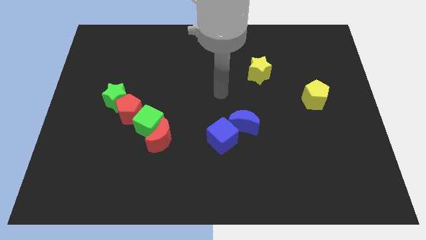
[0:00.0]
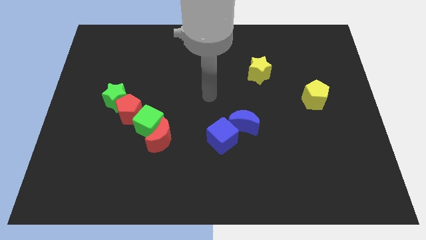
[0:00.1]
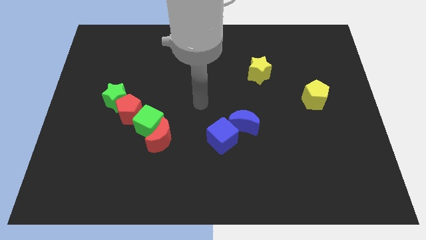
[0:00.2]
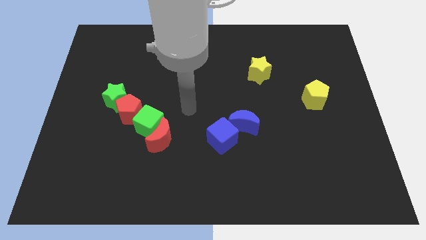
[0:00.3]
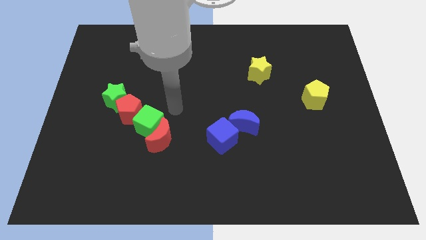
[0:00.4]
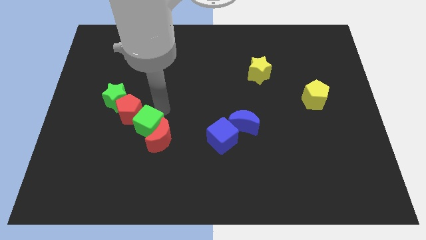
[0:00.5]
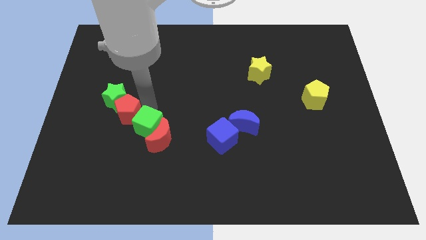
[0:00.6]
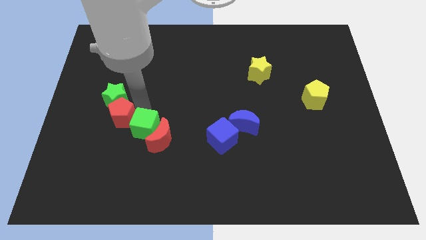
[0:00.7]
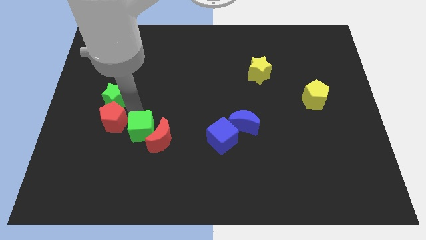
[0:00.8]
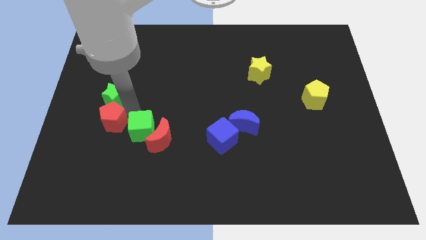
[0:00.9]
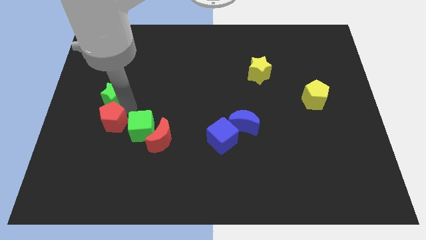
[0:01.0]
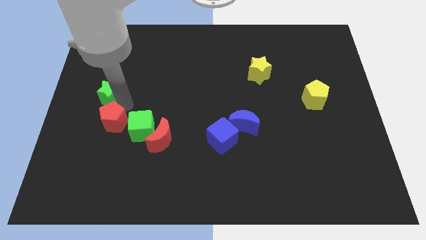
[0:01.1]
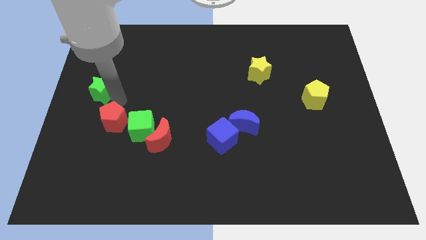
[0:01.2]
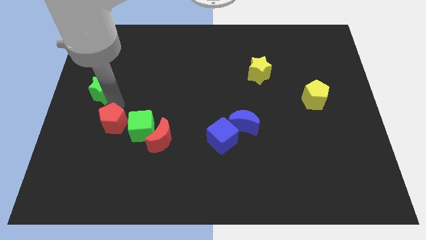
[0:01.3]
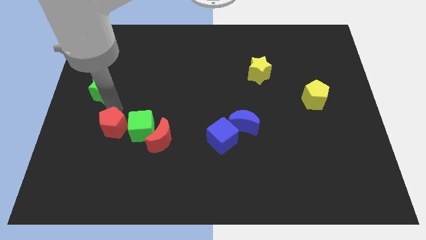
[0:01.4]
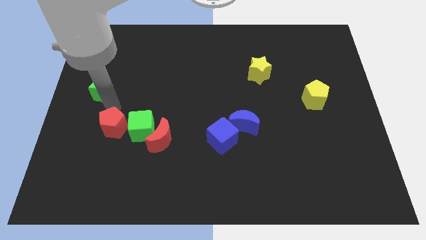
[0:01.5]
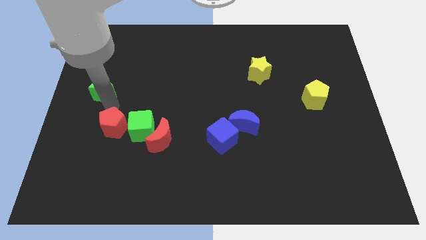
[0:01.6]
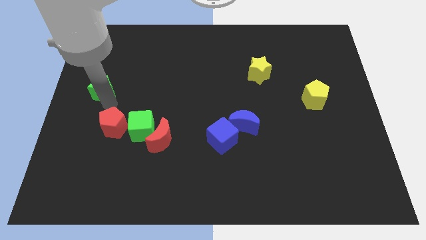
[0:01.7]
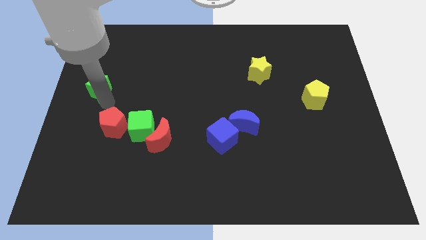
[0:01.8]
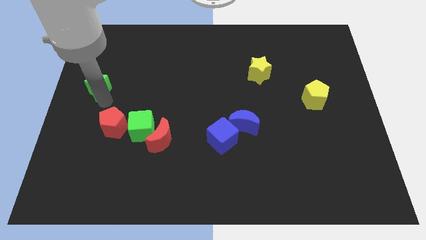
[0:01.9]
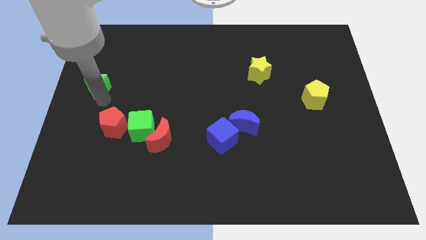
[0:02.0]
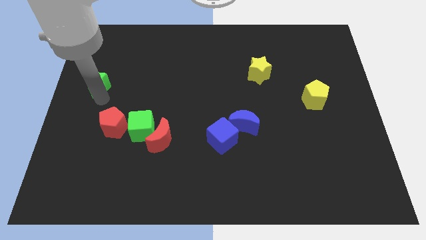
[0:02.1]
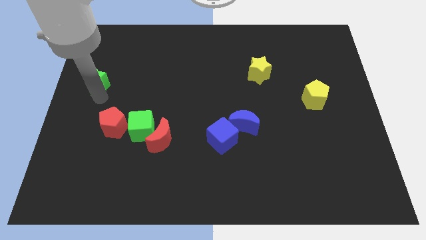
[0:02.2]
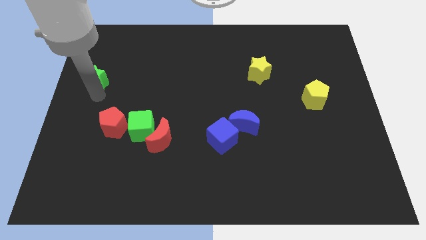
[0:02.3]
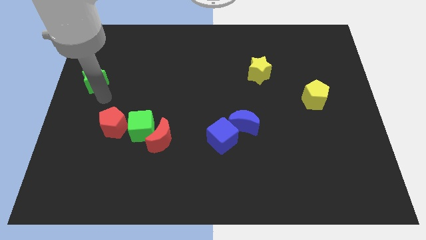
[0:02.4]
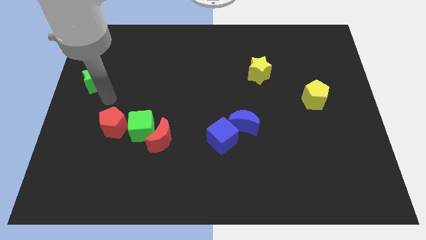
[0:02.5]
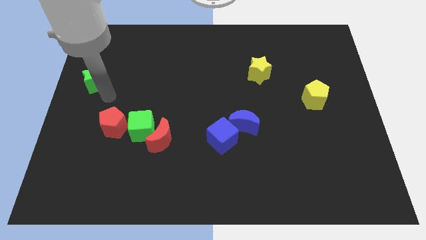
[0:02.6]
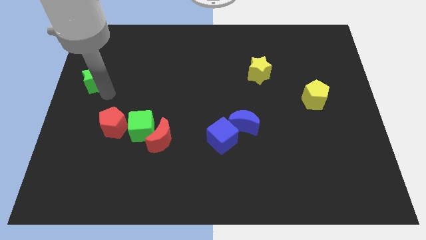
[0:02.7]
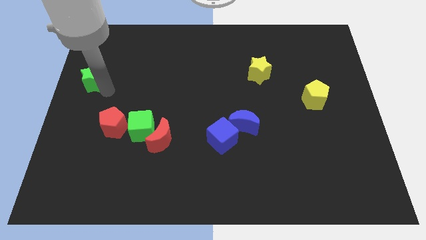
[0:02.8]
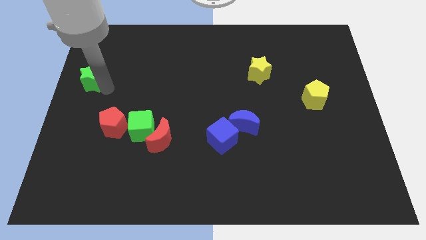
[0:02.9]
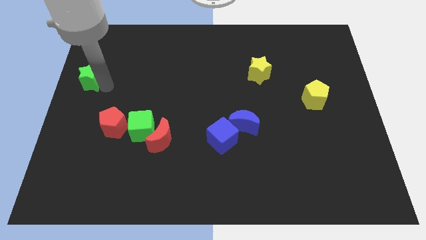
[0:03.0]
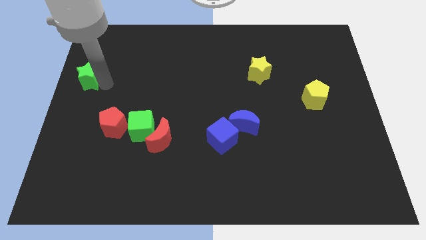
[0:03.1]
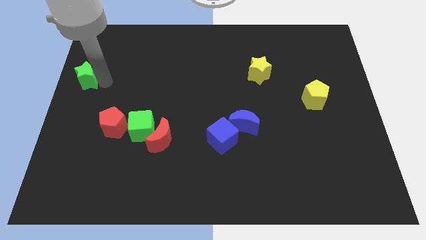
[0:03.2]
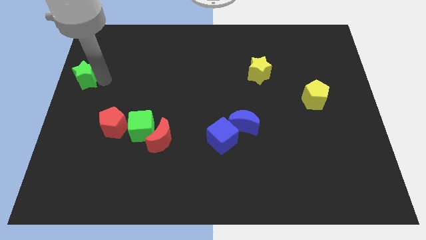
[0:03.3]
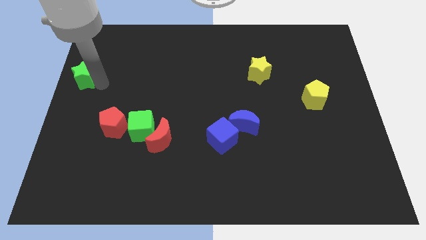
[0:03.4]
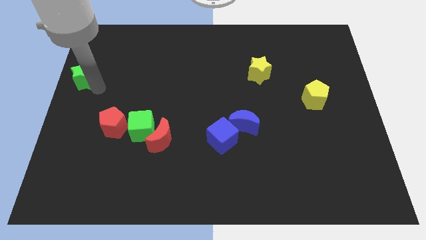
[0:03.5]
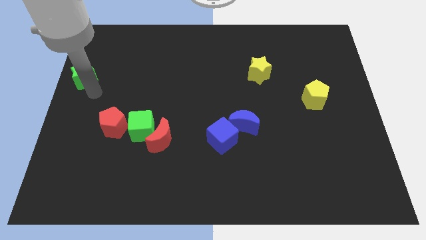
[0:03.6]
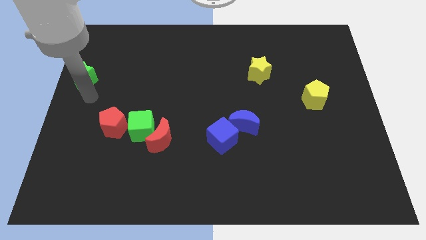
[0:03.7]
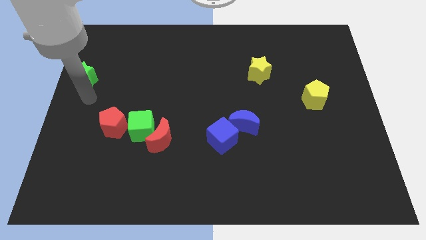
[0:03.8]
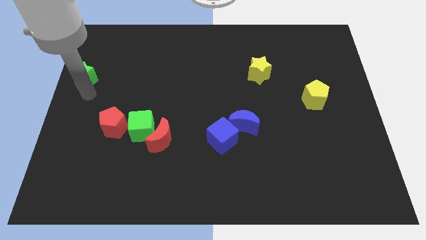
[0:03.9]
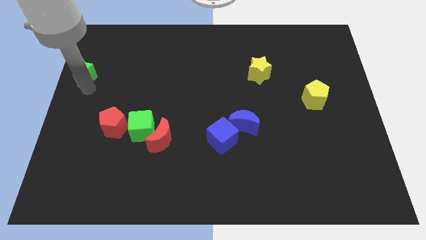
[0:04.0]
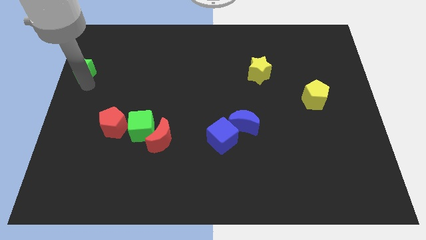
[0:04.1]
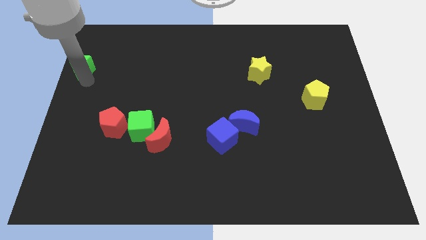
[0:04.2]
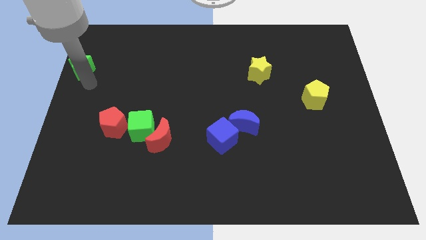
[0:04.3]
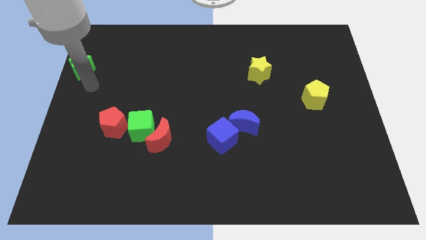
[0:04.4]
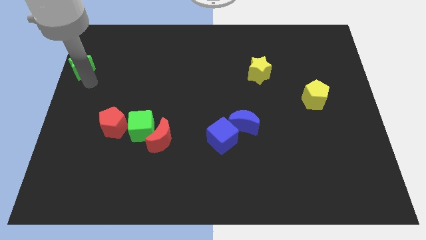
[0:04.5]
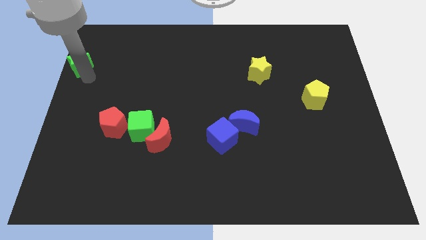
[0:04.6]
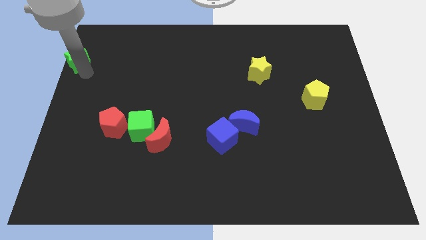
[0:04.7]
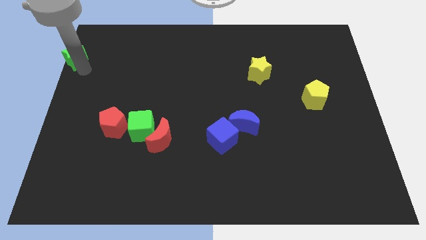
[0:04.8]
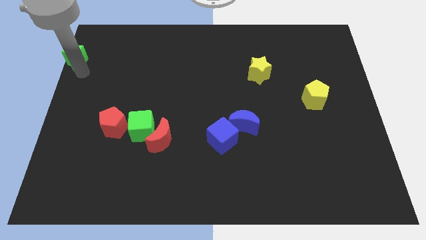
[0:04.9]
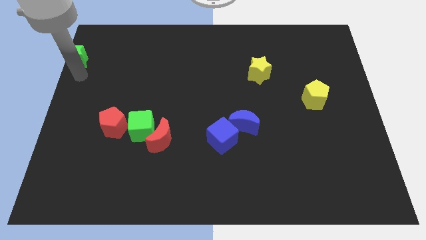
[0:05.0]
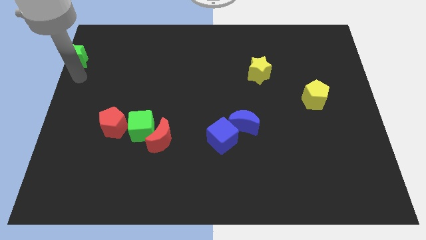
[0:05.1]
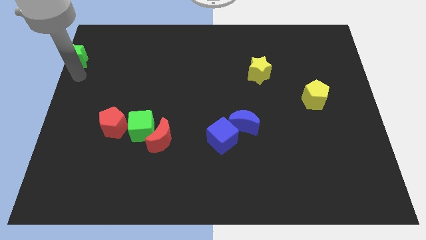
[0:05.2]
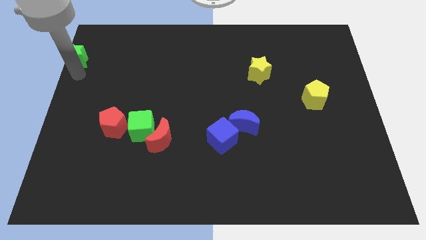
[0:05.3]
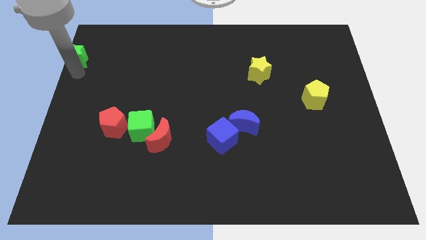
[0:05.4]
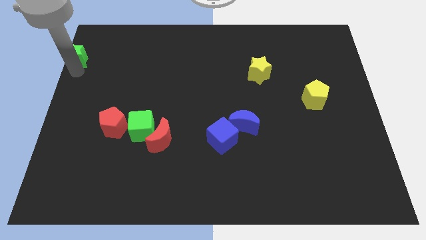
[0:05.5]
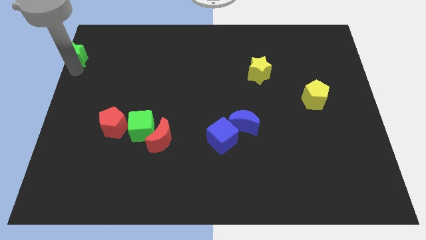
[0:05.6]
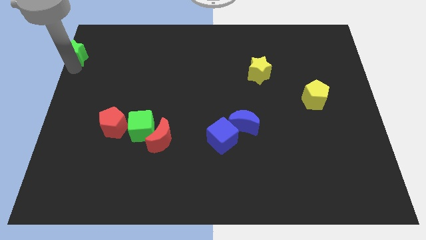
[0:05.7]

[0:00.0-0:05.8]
move the green star to the top left

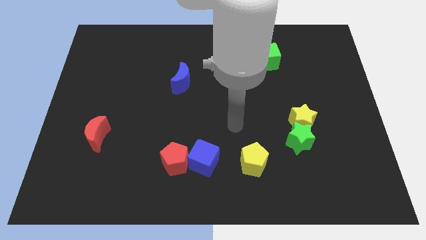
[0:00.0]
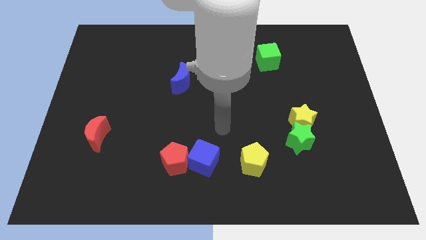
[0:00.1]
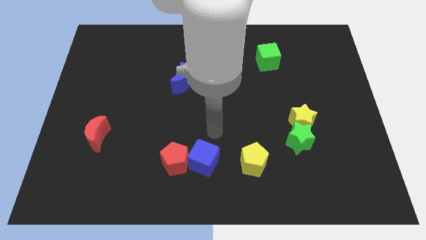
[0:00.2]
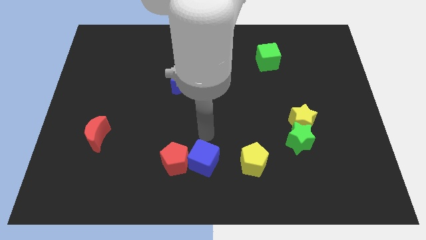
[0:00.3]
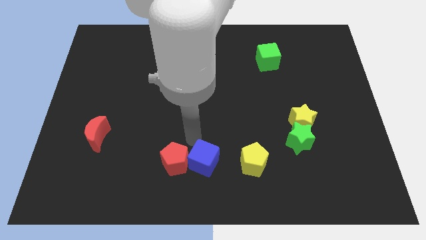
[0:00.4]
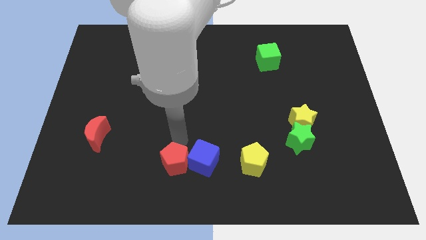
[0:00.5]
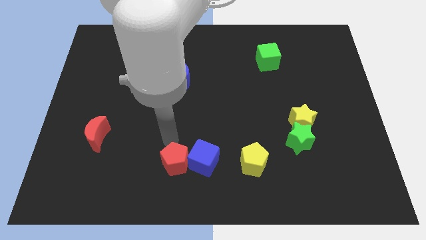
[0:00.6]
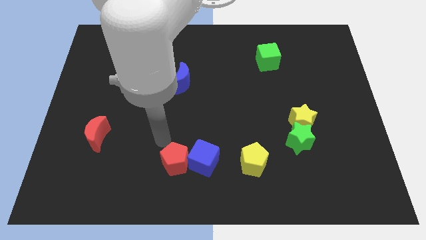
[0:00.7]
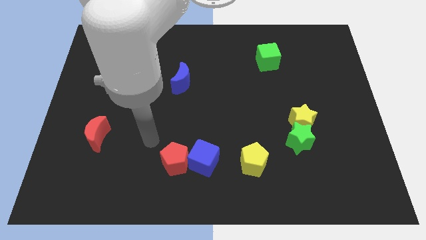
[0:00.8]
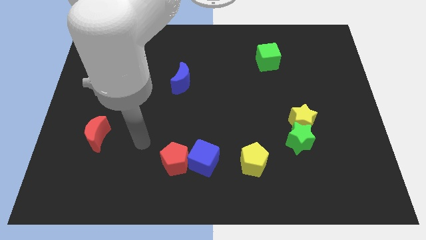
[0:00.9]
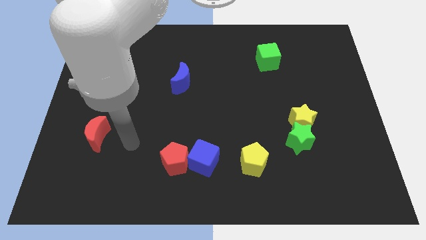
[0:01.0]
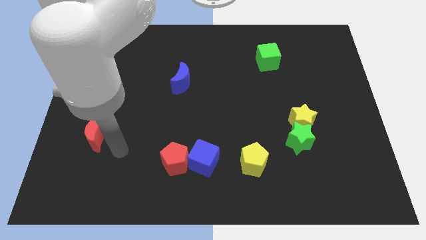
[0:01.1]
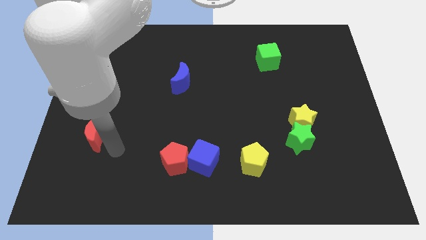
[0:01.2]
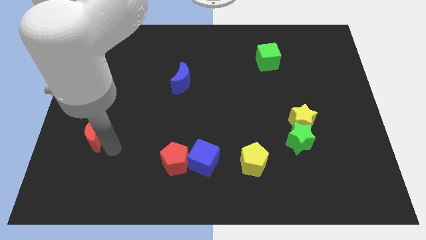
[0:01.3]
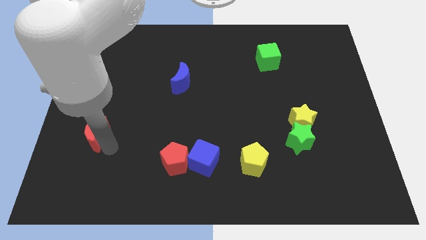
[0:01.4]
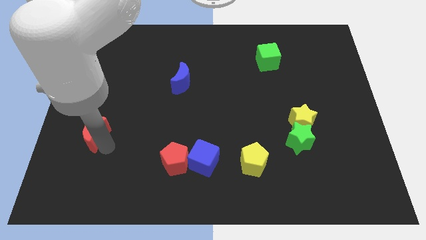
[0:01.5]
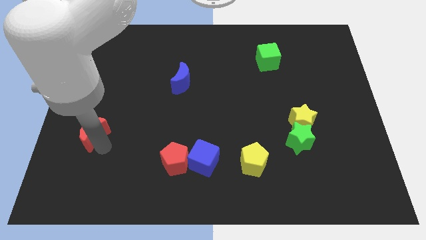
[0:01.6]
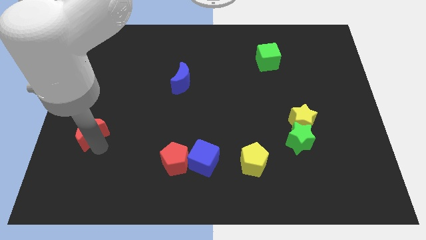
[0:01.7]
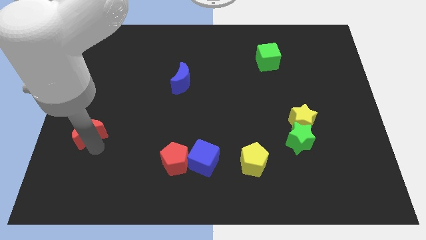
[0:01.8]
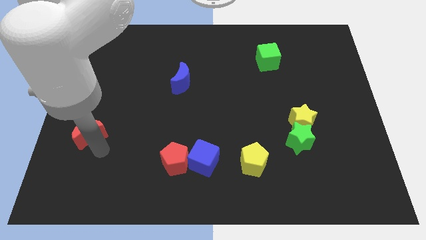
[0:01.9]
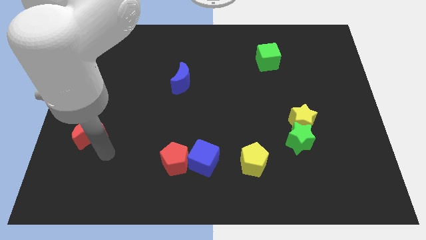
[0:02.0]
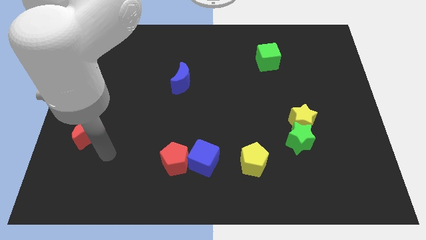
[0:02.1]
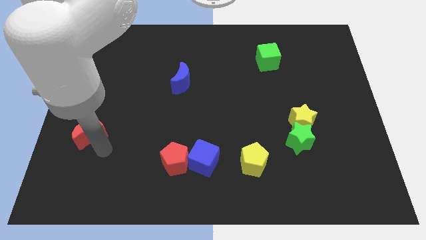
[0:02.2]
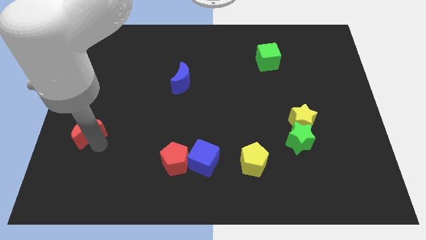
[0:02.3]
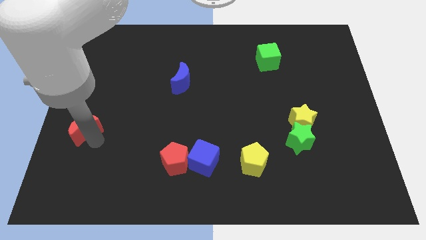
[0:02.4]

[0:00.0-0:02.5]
push the red moon to the left side
